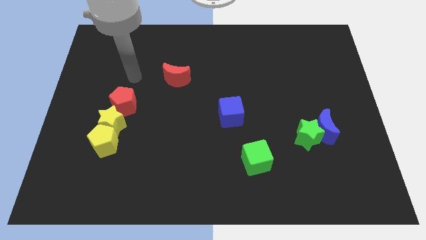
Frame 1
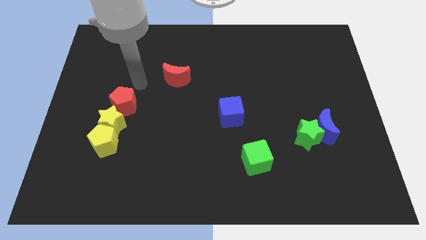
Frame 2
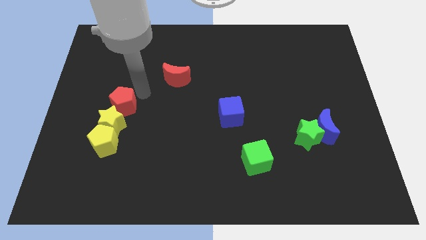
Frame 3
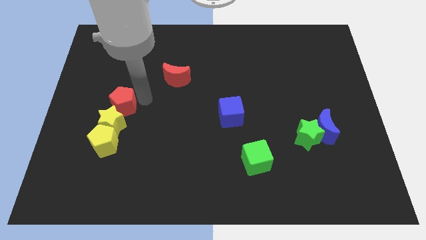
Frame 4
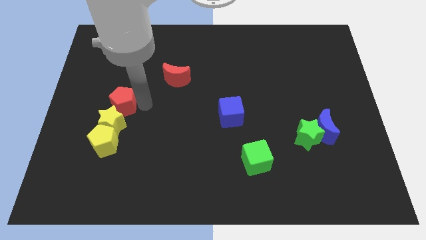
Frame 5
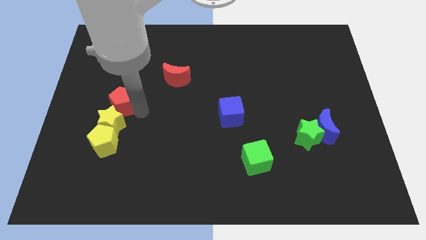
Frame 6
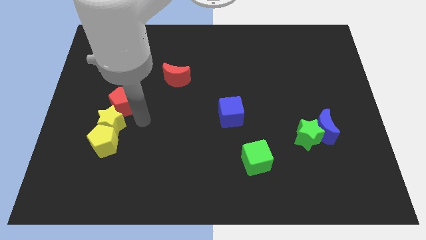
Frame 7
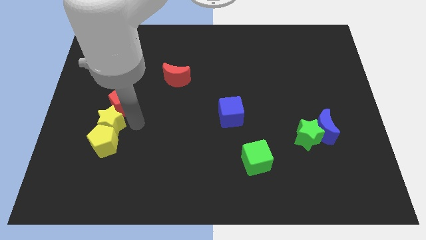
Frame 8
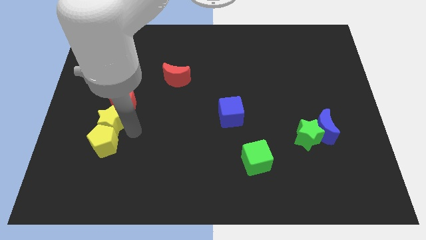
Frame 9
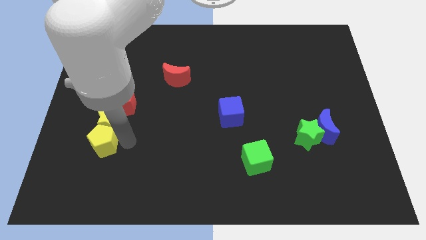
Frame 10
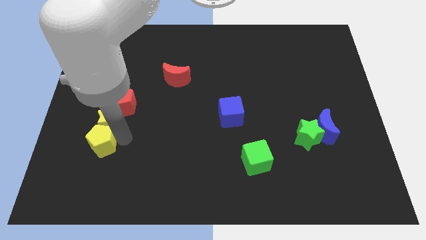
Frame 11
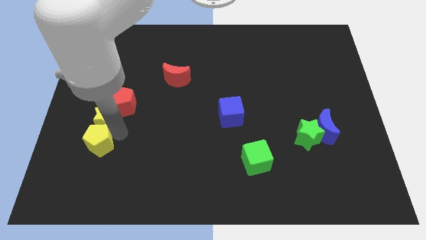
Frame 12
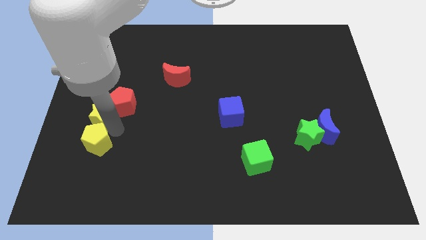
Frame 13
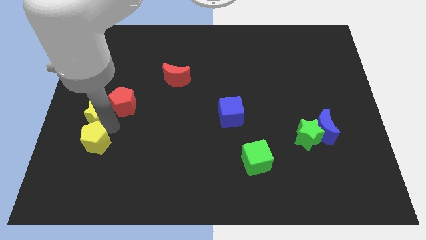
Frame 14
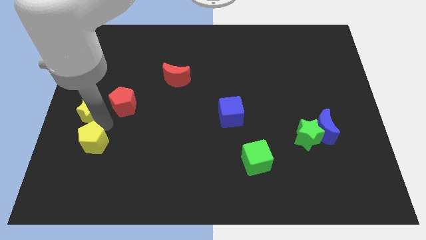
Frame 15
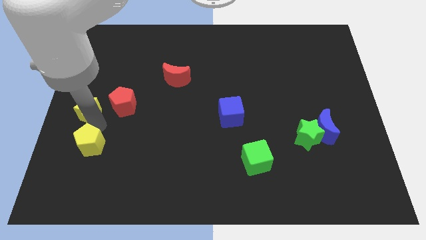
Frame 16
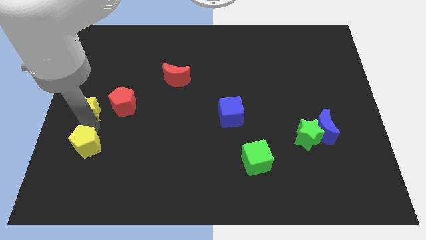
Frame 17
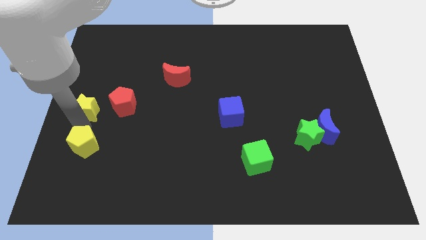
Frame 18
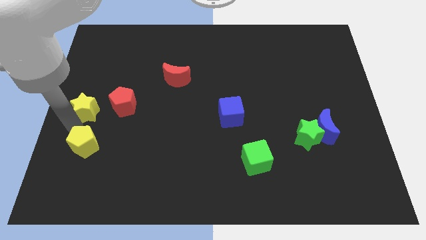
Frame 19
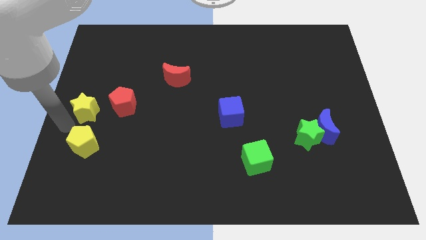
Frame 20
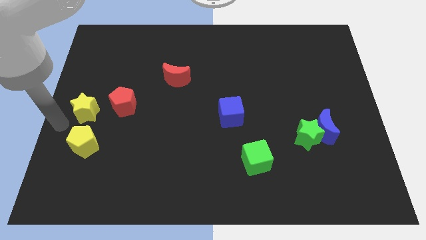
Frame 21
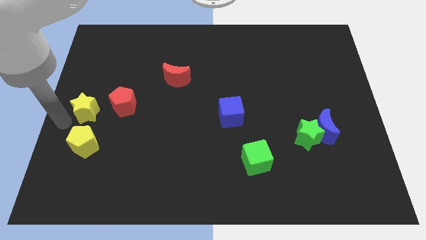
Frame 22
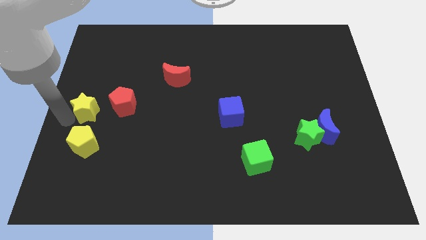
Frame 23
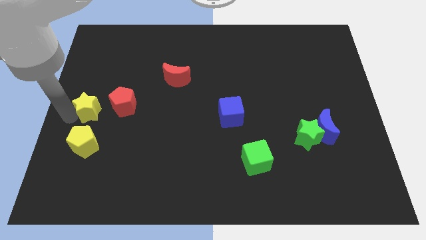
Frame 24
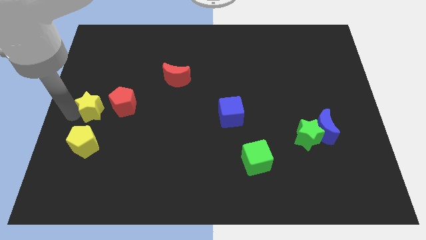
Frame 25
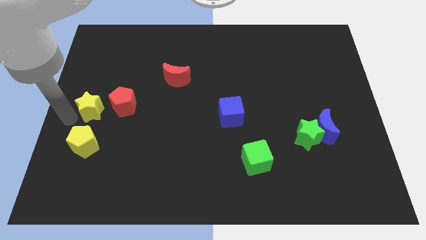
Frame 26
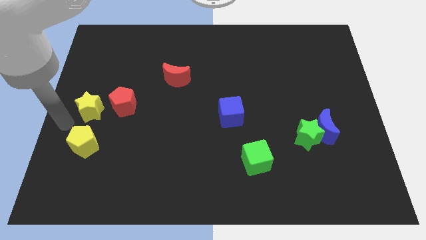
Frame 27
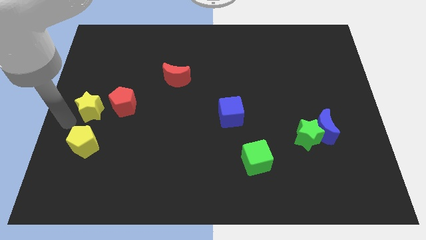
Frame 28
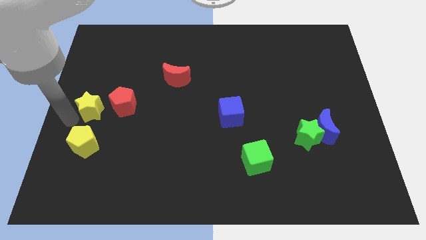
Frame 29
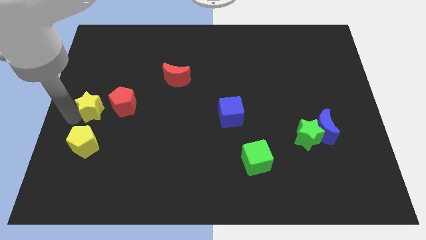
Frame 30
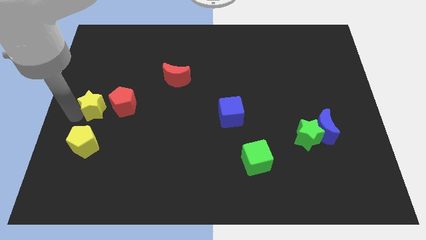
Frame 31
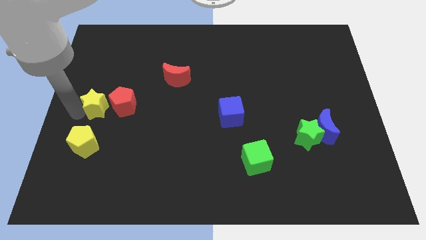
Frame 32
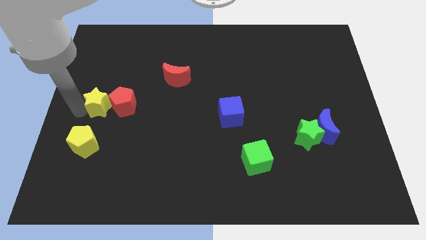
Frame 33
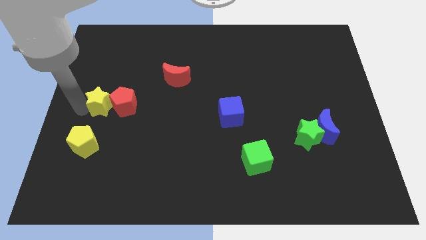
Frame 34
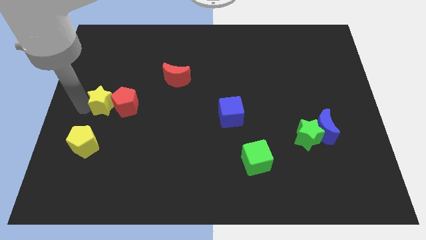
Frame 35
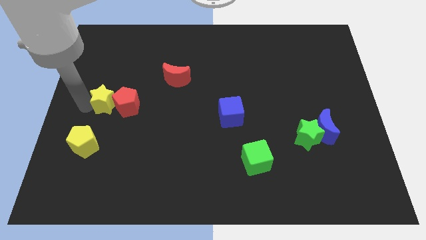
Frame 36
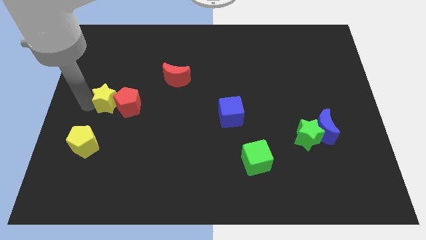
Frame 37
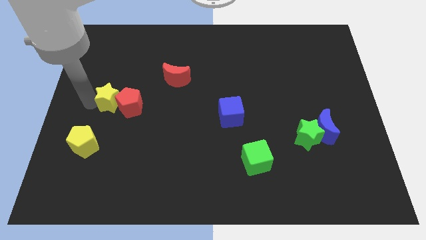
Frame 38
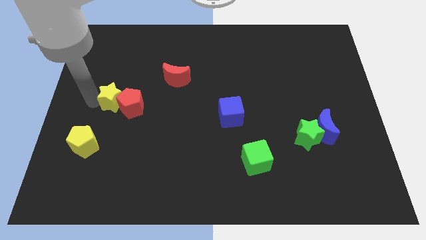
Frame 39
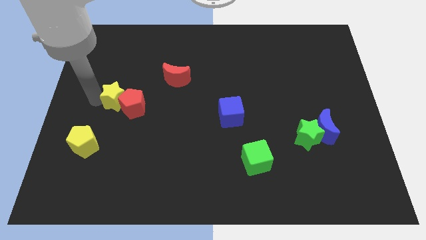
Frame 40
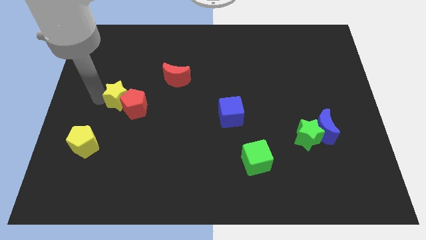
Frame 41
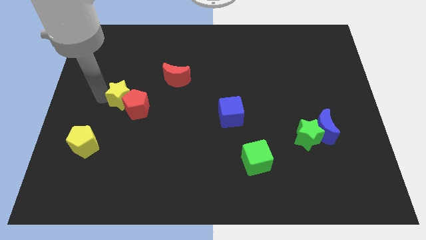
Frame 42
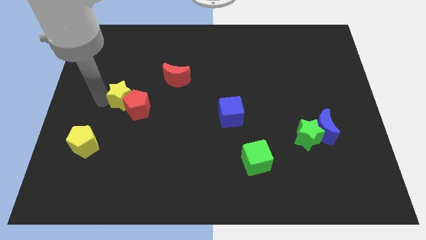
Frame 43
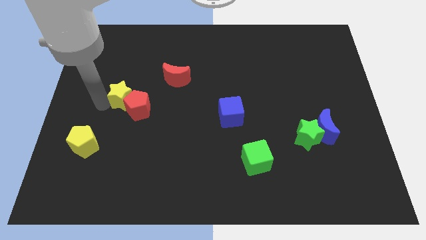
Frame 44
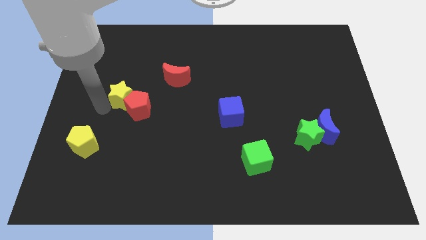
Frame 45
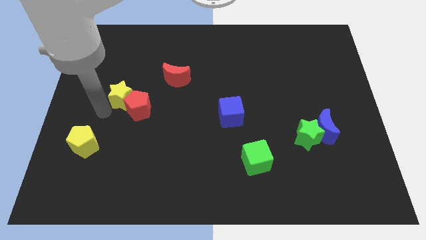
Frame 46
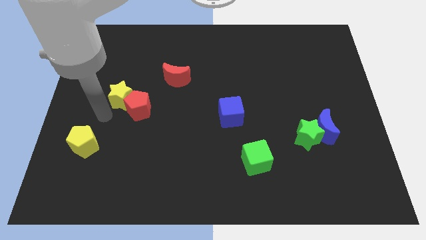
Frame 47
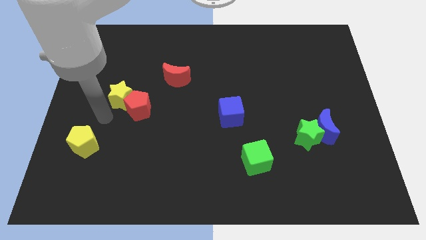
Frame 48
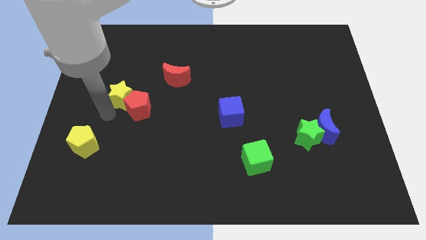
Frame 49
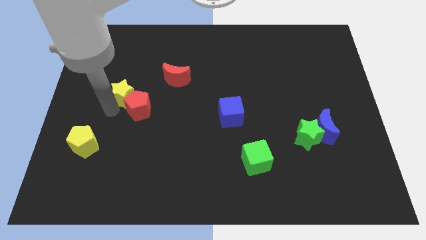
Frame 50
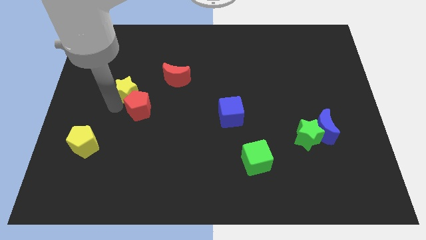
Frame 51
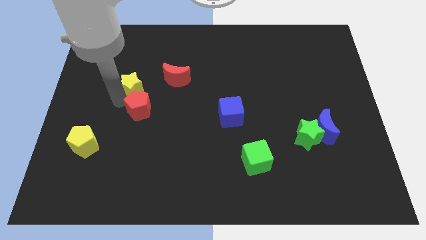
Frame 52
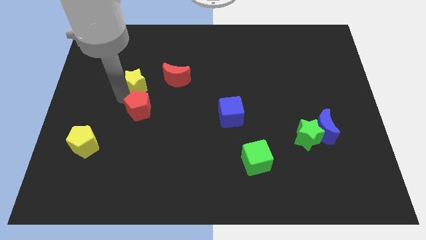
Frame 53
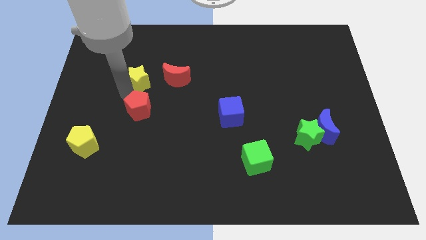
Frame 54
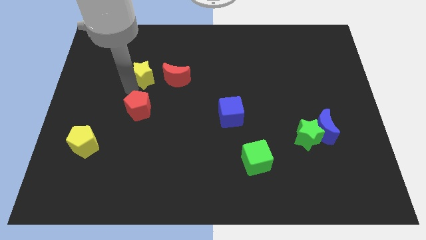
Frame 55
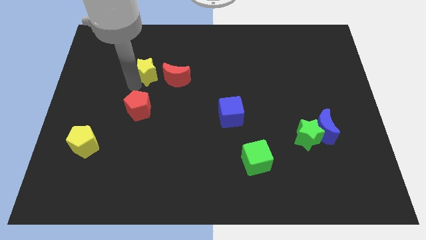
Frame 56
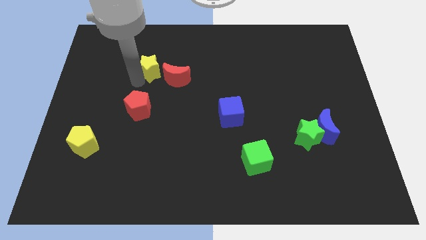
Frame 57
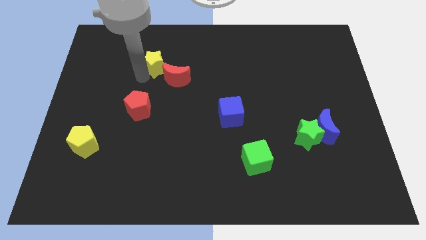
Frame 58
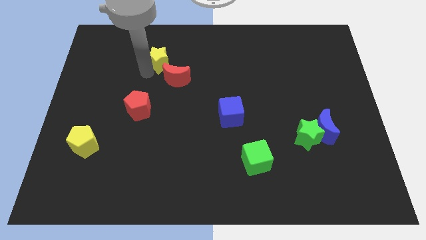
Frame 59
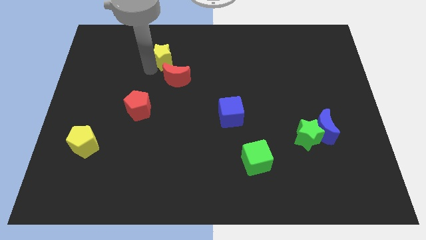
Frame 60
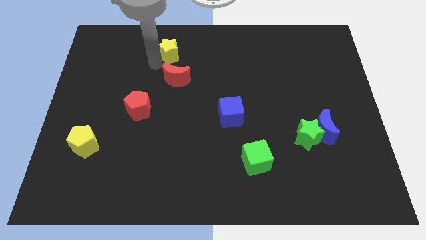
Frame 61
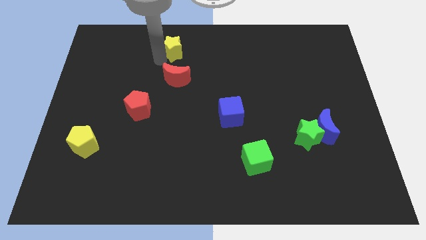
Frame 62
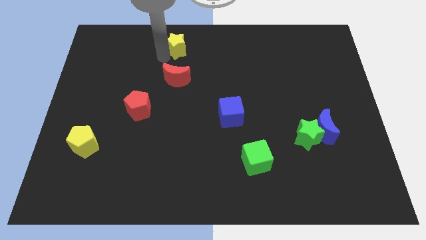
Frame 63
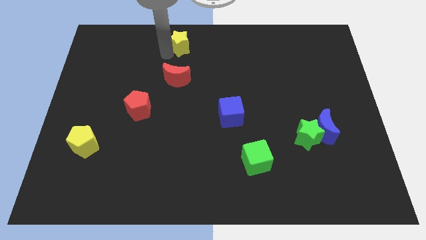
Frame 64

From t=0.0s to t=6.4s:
push the yellow star to the top
